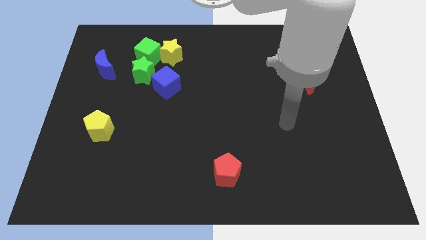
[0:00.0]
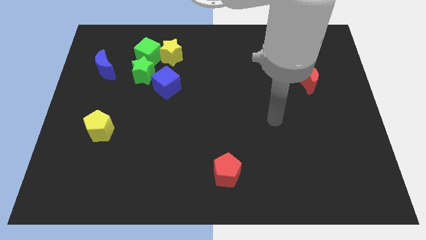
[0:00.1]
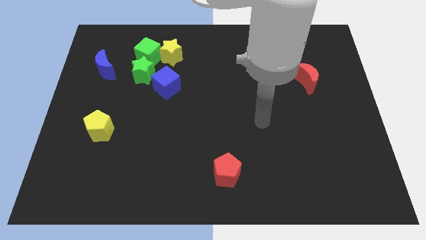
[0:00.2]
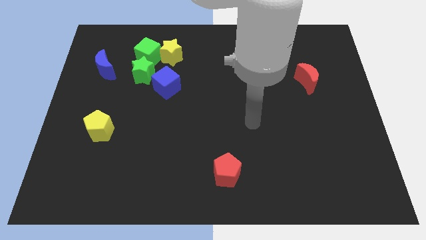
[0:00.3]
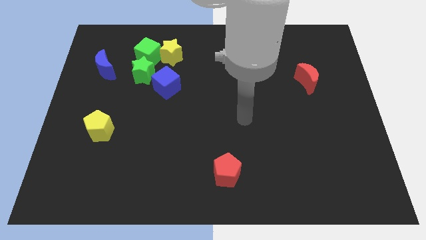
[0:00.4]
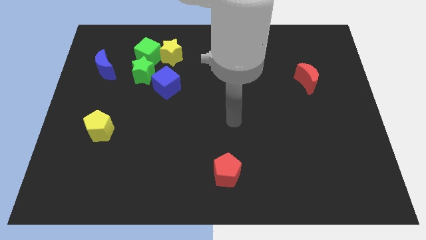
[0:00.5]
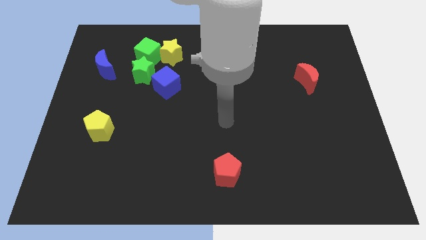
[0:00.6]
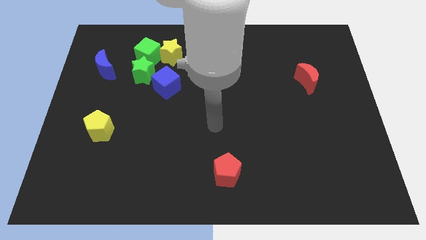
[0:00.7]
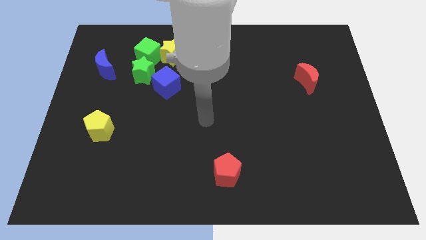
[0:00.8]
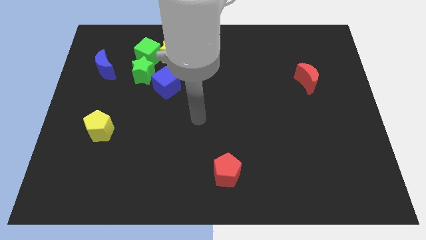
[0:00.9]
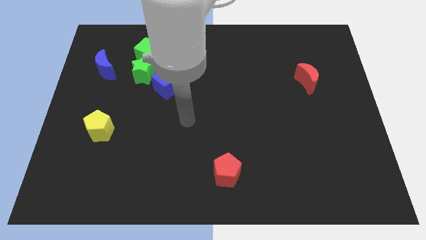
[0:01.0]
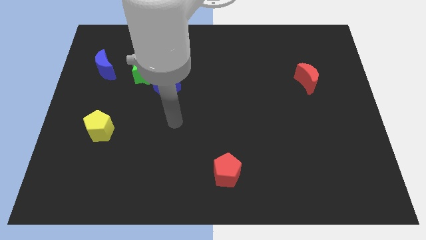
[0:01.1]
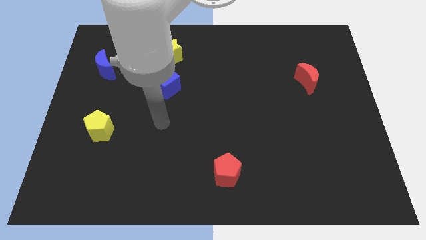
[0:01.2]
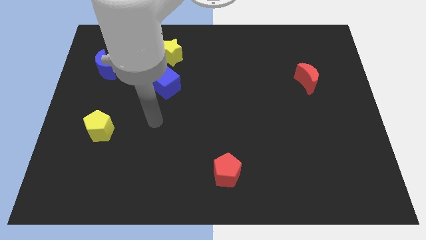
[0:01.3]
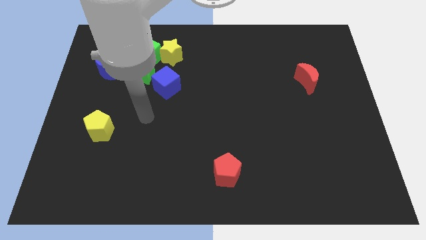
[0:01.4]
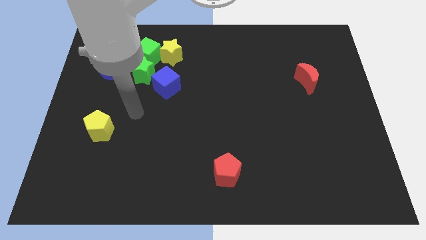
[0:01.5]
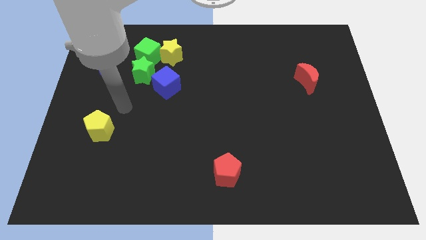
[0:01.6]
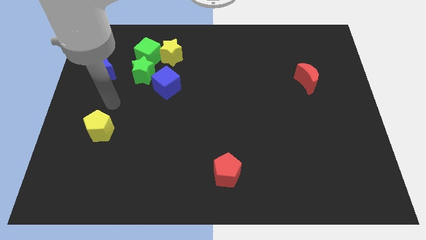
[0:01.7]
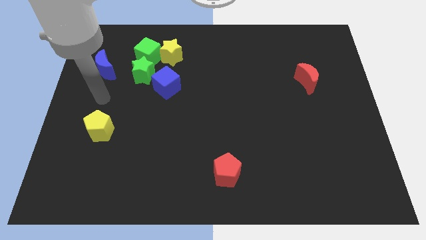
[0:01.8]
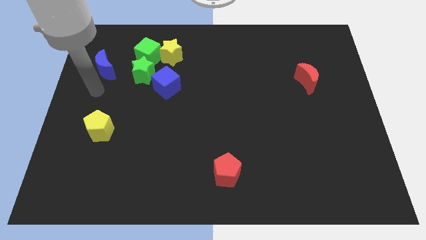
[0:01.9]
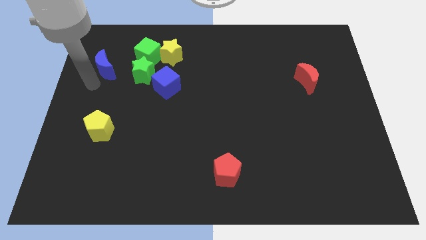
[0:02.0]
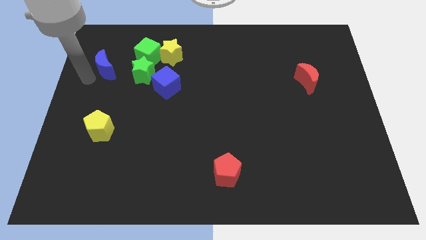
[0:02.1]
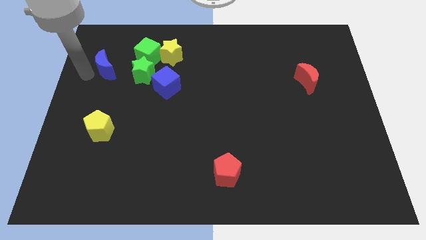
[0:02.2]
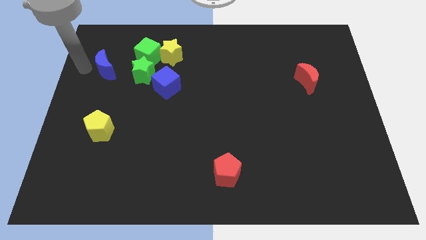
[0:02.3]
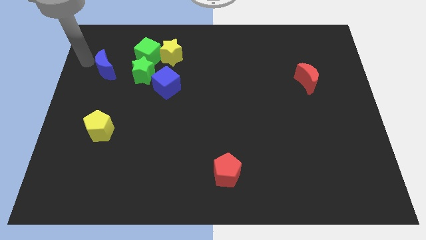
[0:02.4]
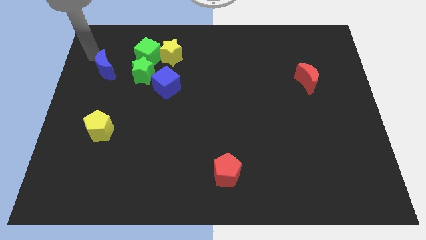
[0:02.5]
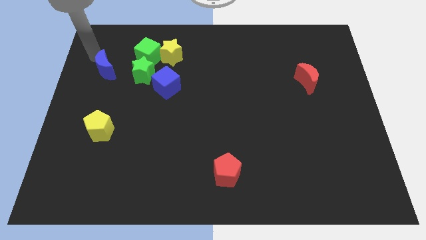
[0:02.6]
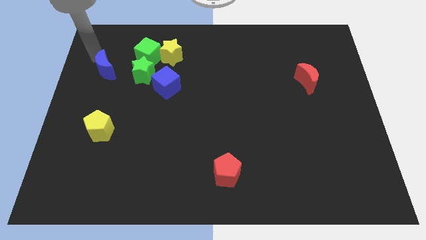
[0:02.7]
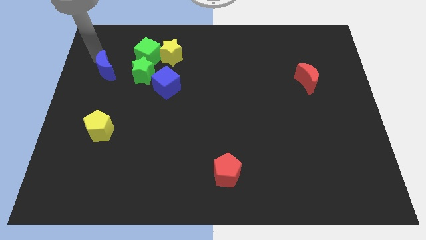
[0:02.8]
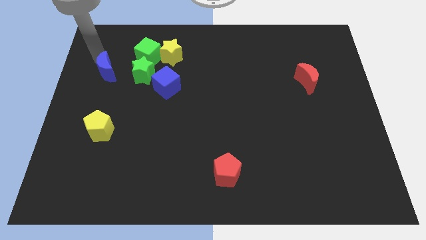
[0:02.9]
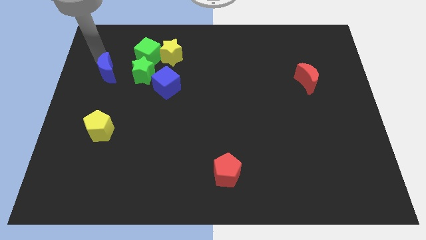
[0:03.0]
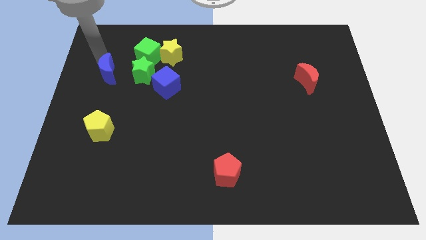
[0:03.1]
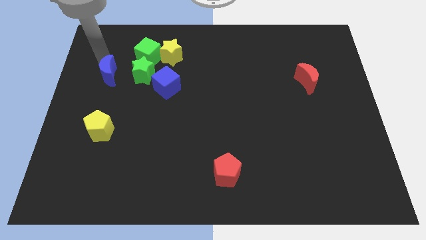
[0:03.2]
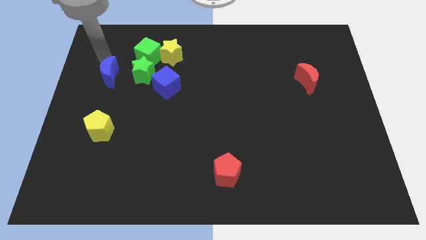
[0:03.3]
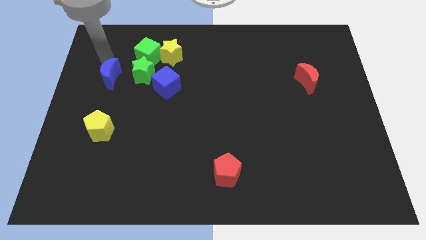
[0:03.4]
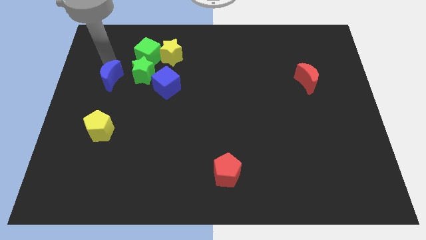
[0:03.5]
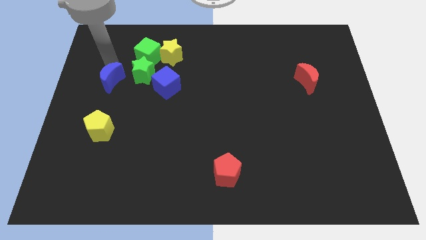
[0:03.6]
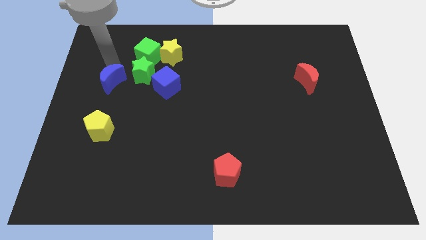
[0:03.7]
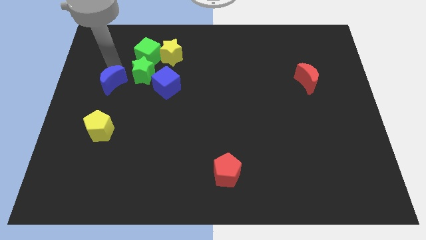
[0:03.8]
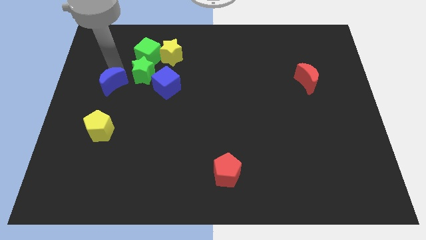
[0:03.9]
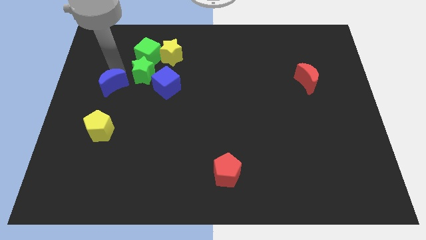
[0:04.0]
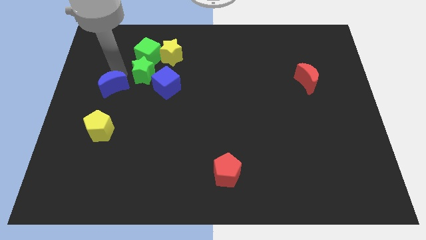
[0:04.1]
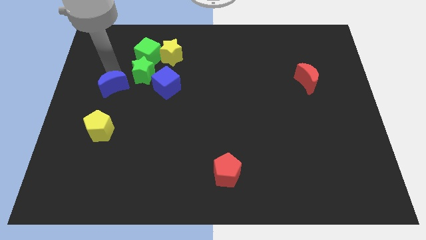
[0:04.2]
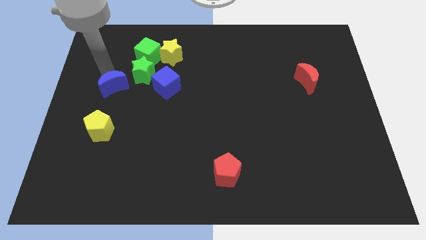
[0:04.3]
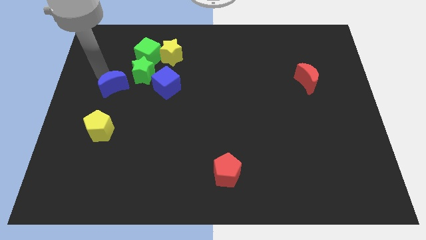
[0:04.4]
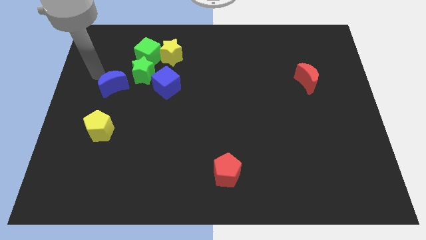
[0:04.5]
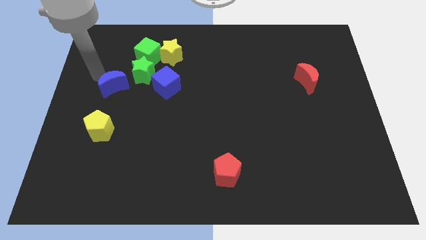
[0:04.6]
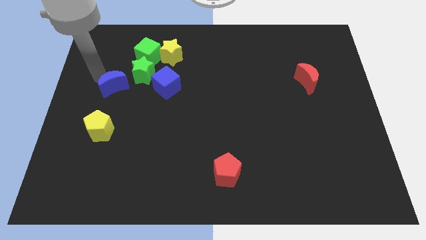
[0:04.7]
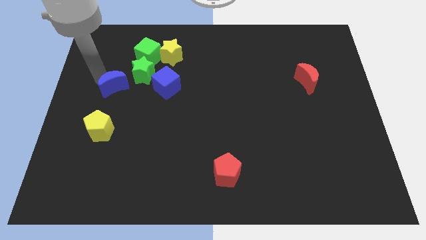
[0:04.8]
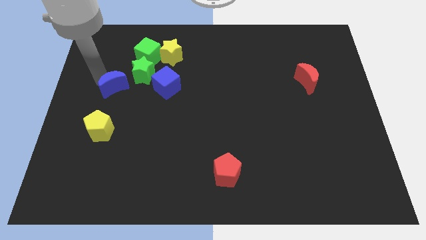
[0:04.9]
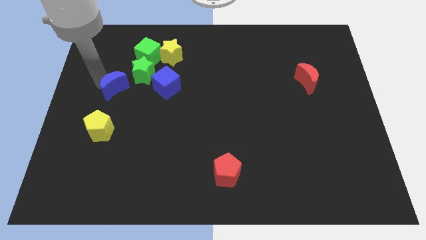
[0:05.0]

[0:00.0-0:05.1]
push the blue moon downwards and to the right a little bit

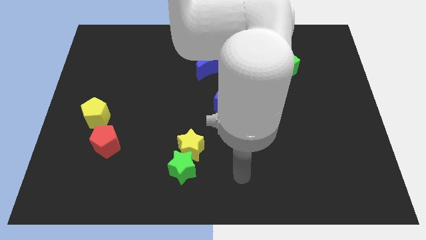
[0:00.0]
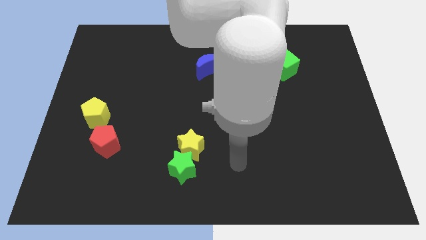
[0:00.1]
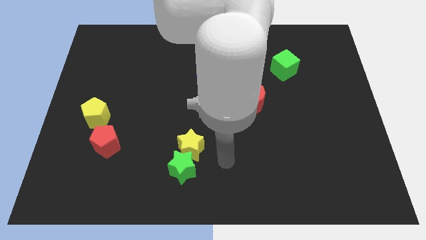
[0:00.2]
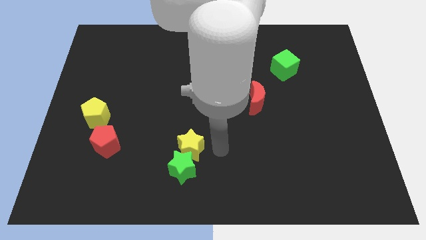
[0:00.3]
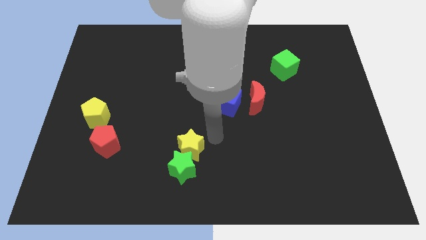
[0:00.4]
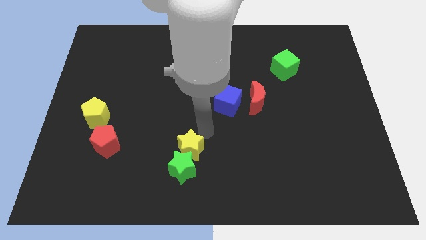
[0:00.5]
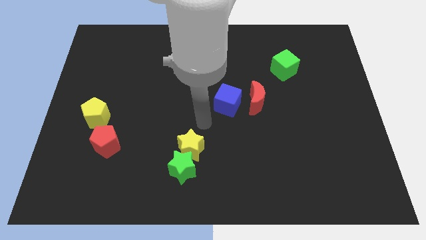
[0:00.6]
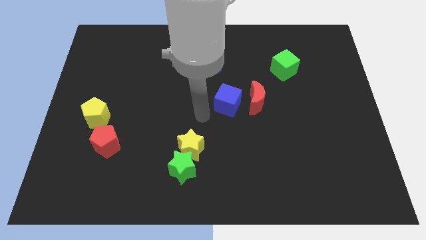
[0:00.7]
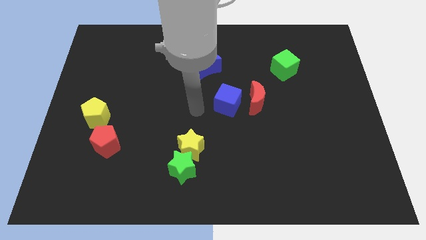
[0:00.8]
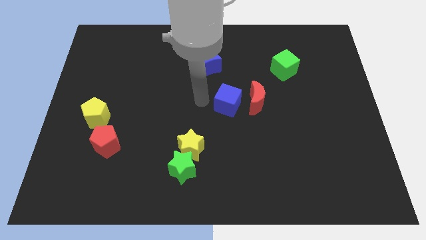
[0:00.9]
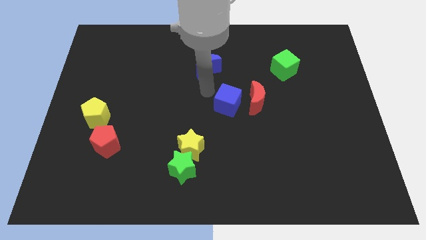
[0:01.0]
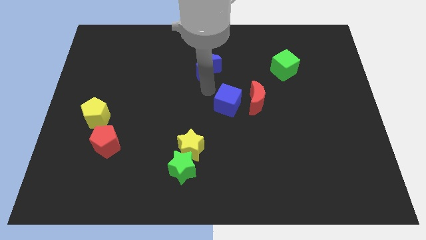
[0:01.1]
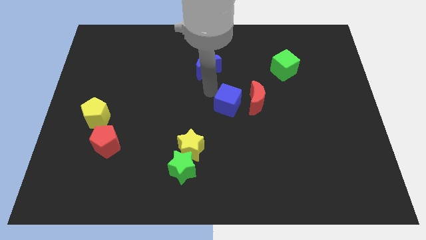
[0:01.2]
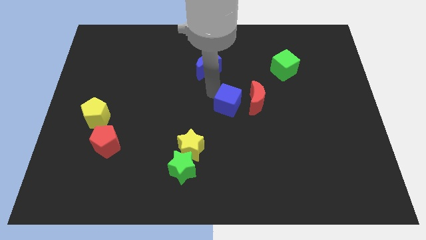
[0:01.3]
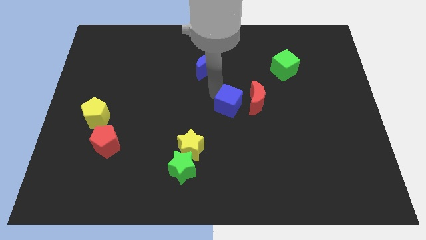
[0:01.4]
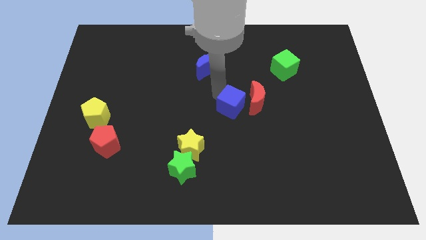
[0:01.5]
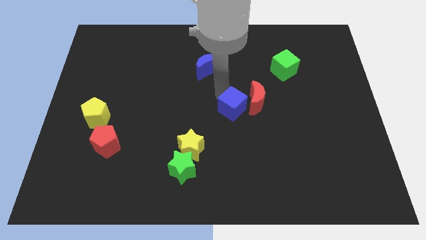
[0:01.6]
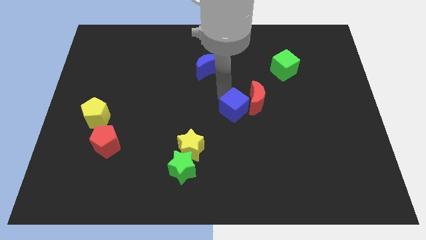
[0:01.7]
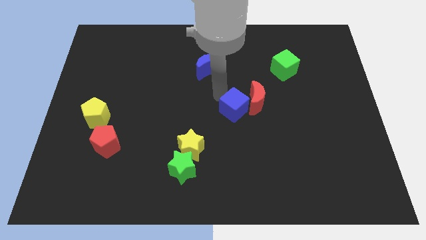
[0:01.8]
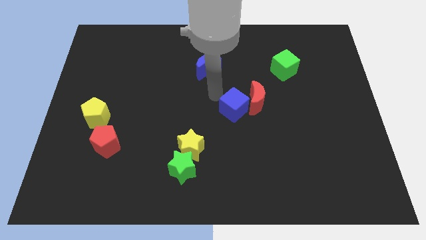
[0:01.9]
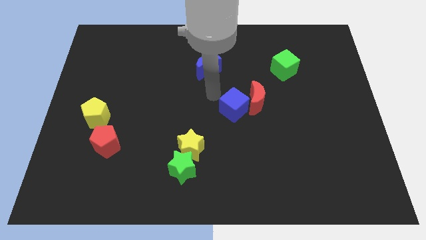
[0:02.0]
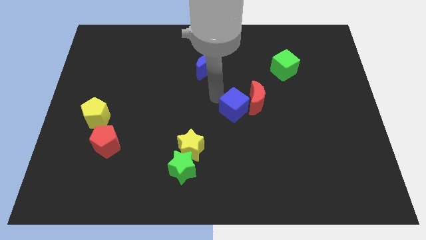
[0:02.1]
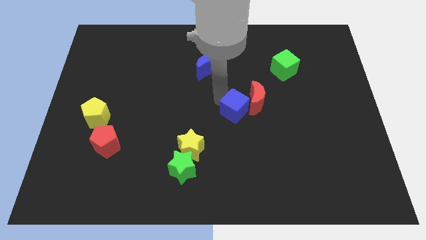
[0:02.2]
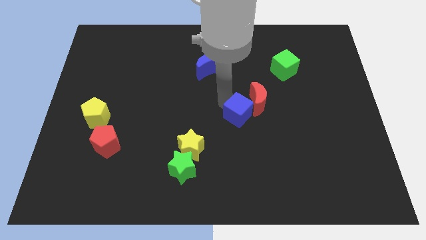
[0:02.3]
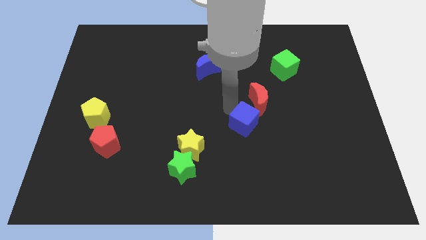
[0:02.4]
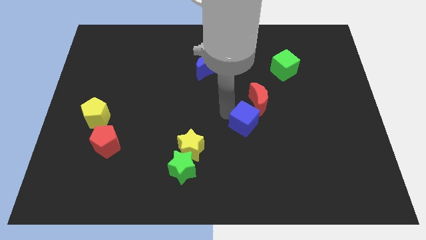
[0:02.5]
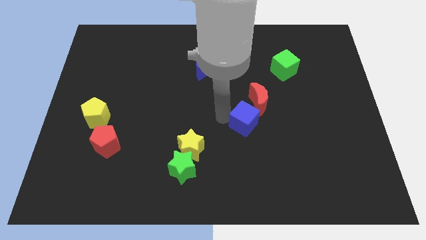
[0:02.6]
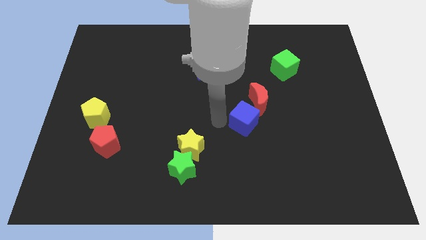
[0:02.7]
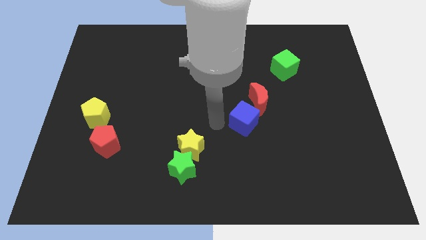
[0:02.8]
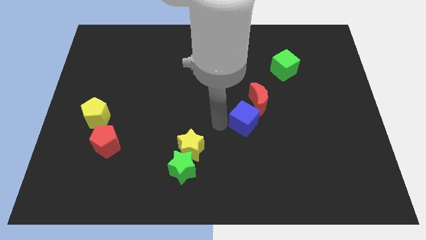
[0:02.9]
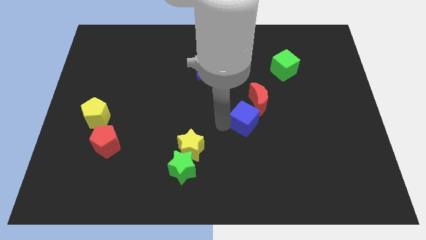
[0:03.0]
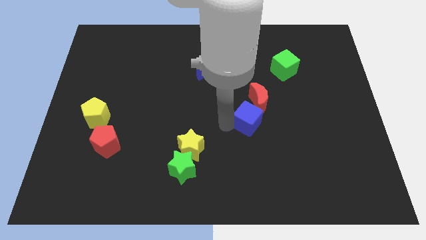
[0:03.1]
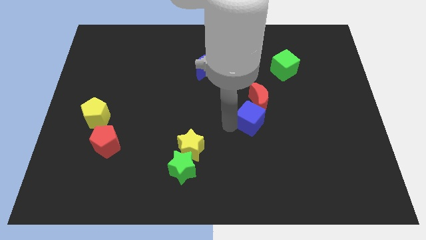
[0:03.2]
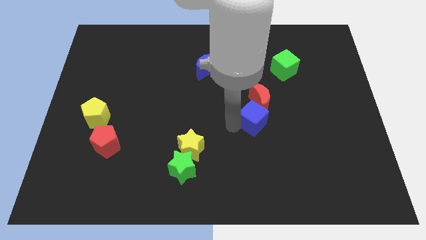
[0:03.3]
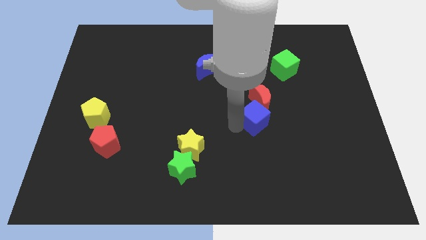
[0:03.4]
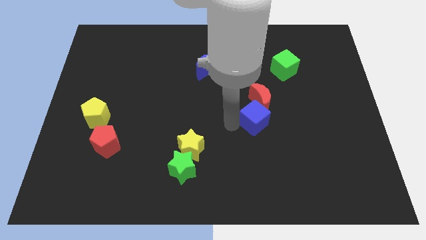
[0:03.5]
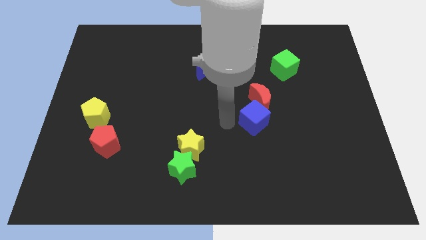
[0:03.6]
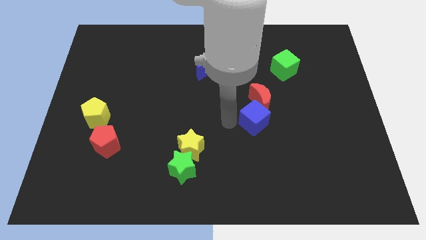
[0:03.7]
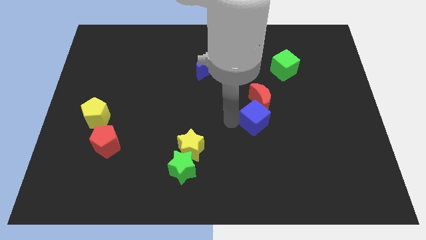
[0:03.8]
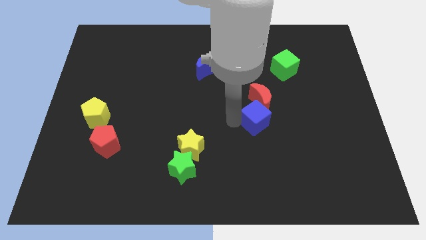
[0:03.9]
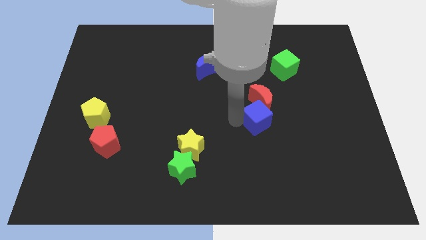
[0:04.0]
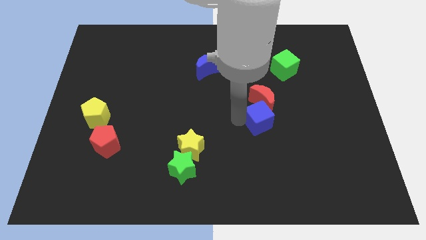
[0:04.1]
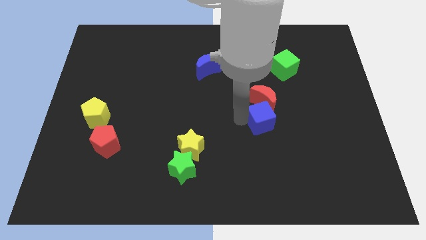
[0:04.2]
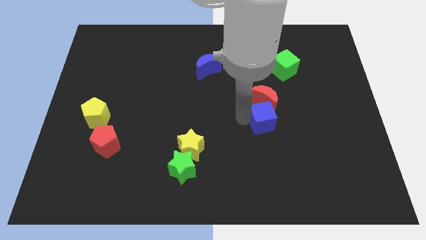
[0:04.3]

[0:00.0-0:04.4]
slightly push the blue cube to the right
